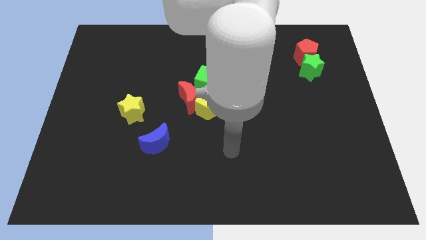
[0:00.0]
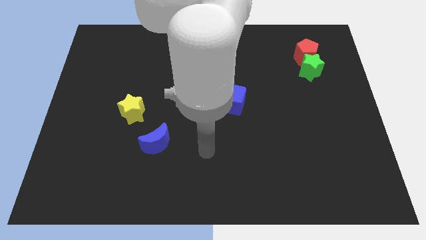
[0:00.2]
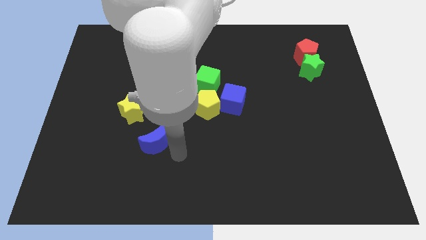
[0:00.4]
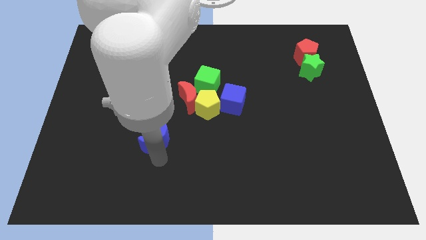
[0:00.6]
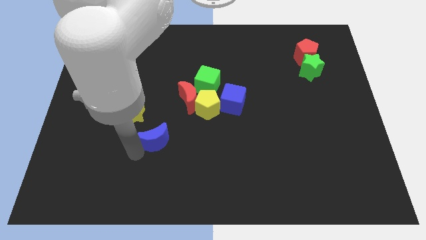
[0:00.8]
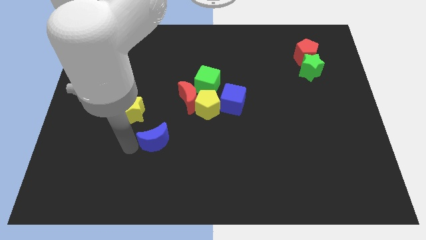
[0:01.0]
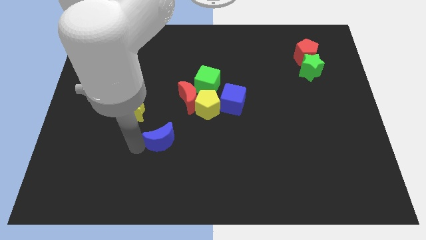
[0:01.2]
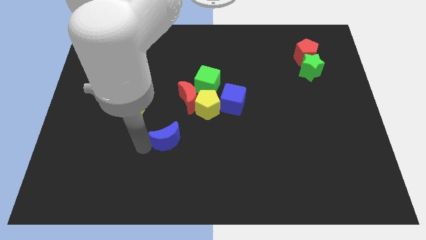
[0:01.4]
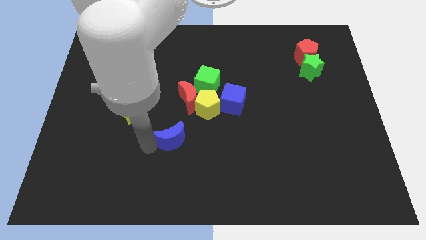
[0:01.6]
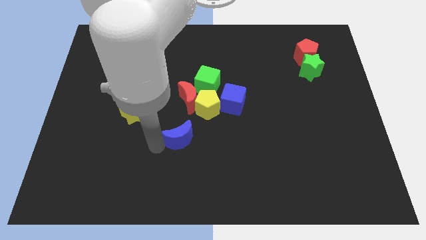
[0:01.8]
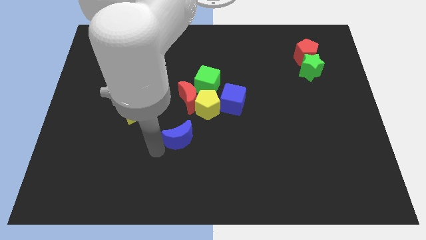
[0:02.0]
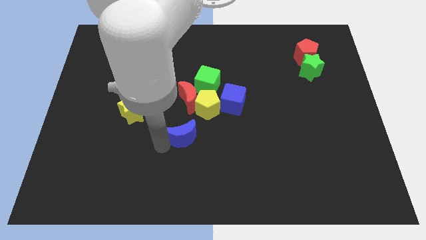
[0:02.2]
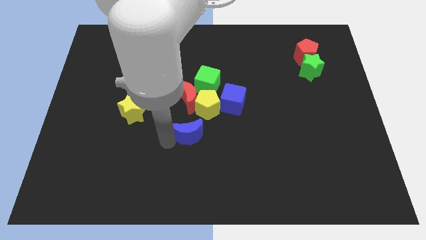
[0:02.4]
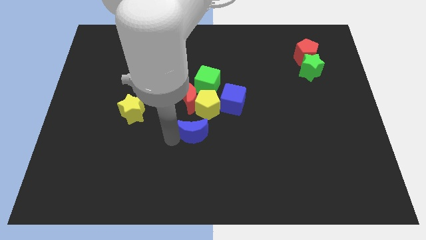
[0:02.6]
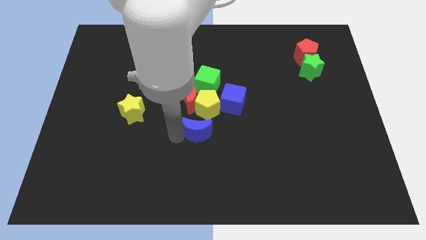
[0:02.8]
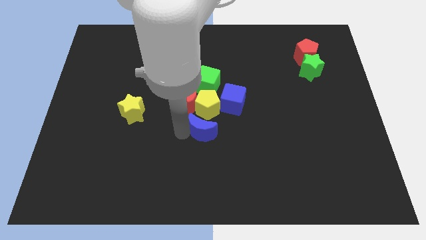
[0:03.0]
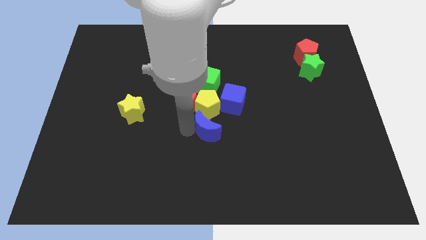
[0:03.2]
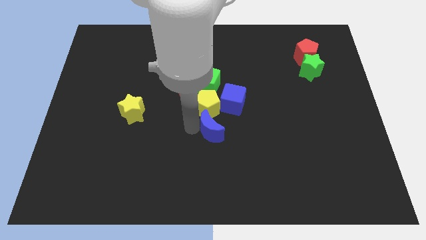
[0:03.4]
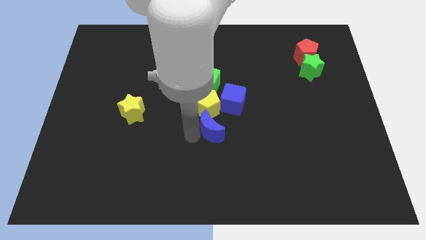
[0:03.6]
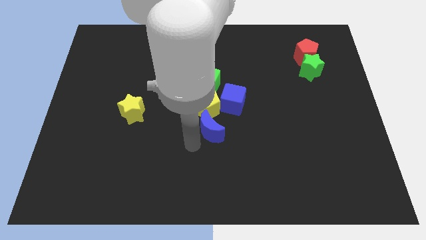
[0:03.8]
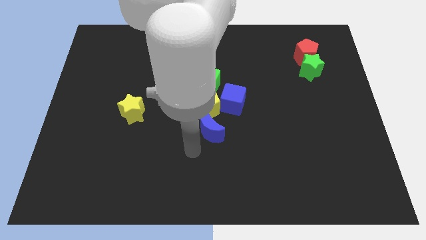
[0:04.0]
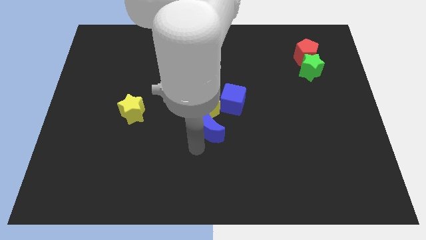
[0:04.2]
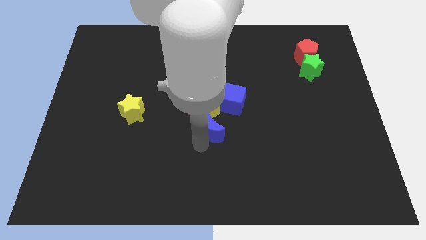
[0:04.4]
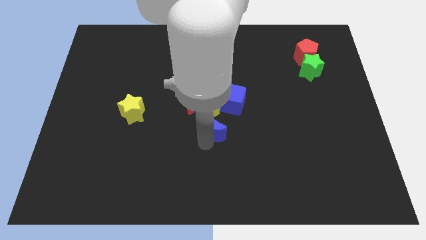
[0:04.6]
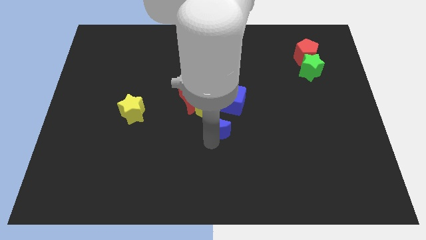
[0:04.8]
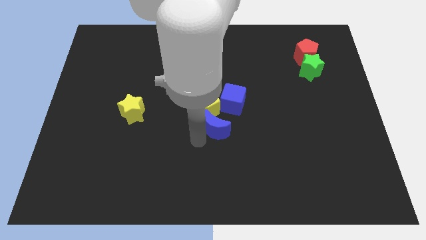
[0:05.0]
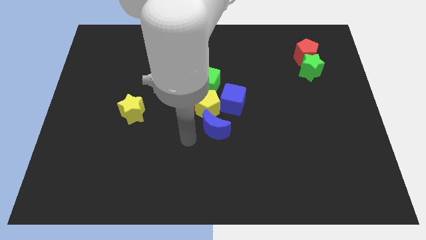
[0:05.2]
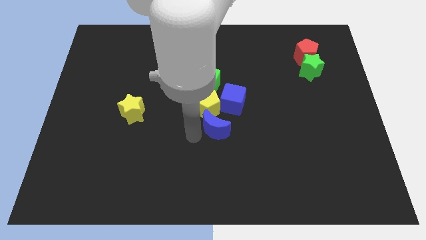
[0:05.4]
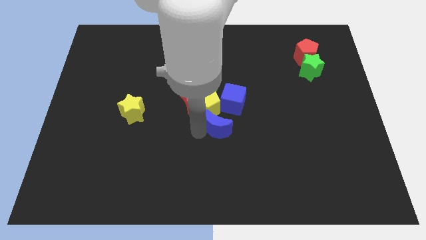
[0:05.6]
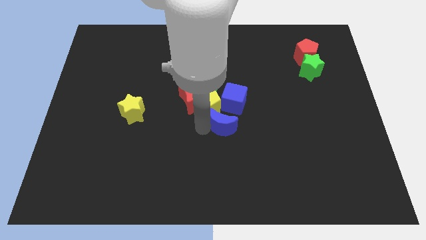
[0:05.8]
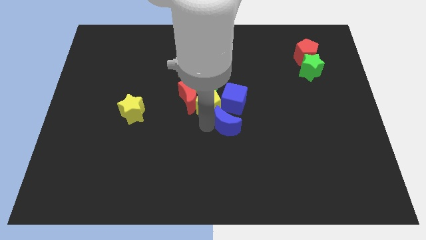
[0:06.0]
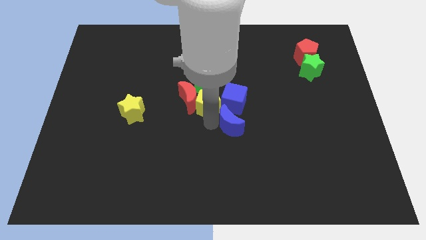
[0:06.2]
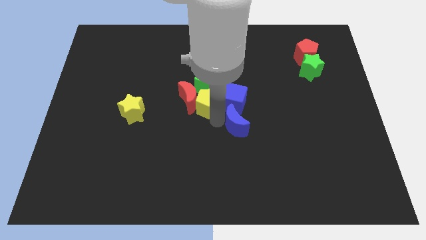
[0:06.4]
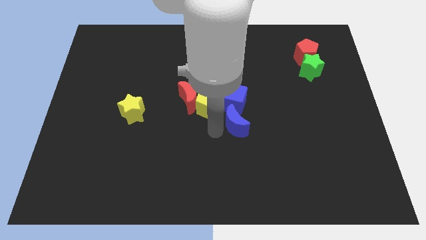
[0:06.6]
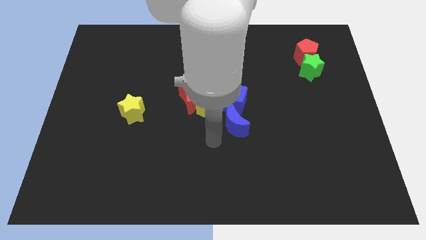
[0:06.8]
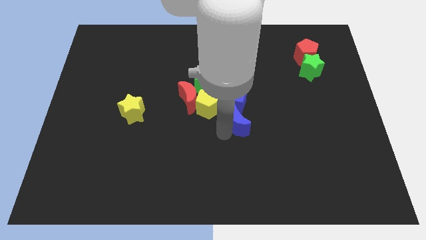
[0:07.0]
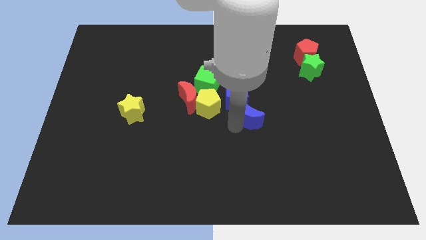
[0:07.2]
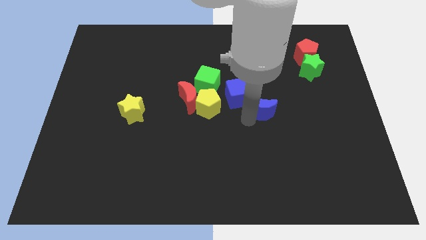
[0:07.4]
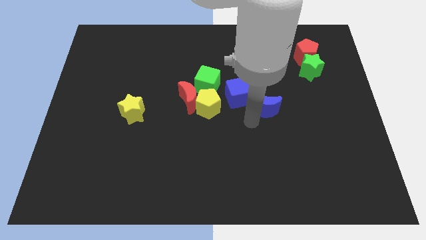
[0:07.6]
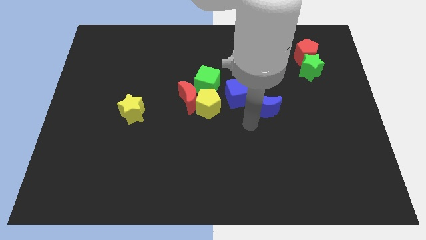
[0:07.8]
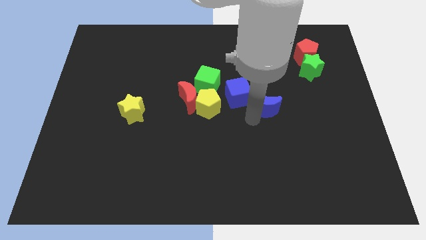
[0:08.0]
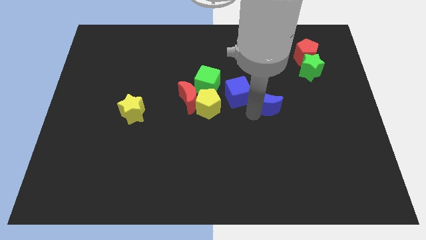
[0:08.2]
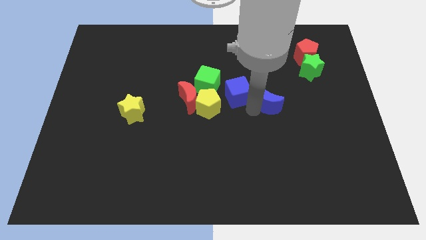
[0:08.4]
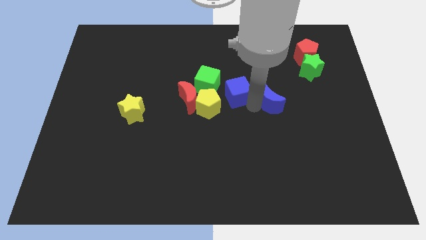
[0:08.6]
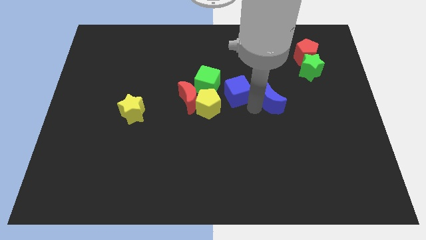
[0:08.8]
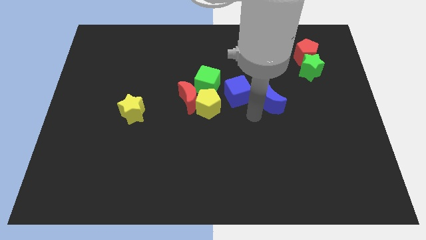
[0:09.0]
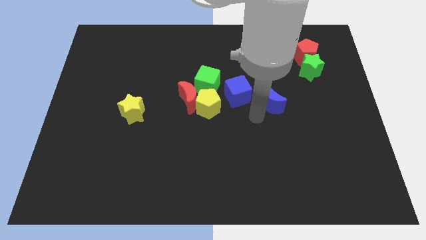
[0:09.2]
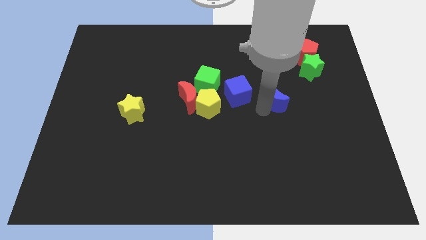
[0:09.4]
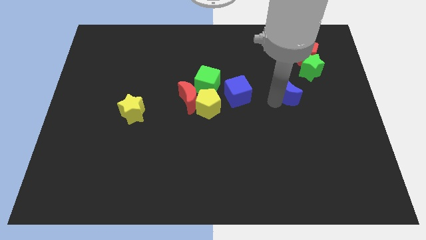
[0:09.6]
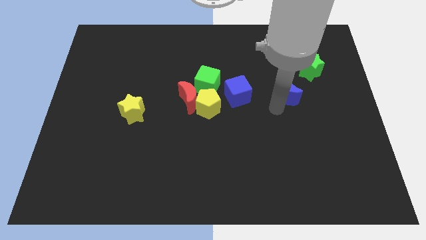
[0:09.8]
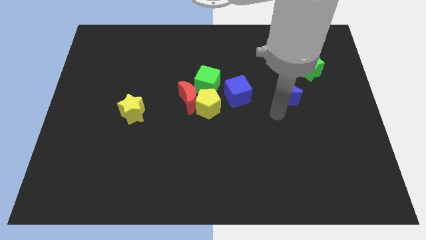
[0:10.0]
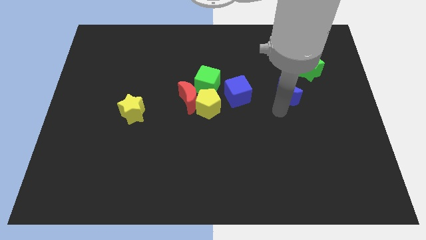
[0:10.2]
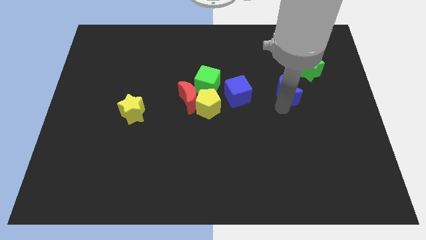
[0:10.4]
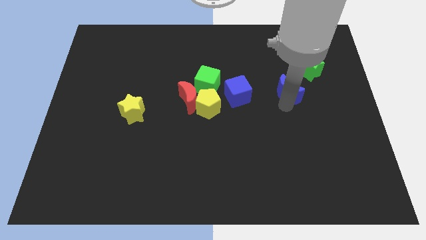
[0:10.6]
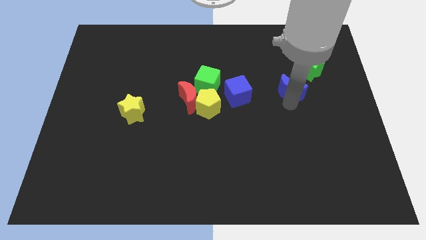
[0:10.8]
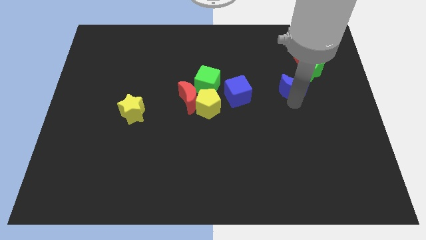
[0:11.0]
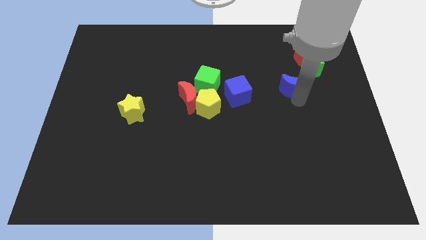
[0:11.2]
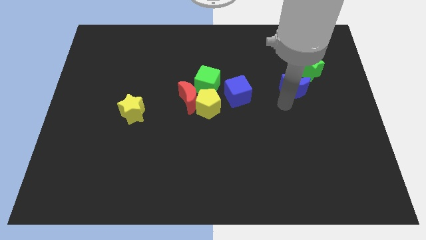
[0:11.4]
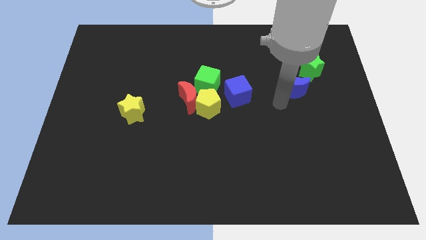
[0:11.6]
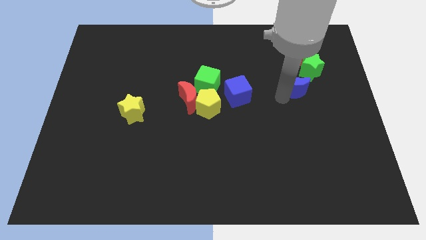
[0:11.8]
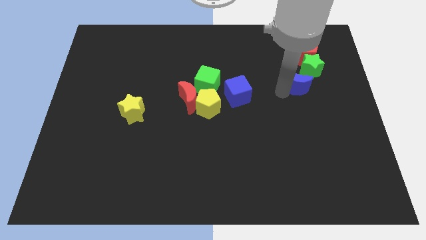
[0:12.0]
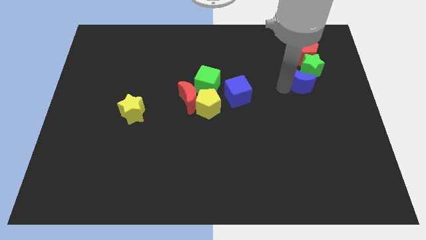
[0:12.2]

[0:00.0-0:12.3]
slide the blue moon close to the green star

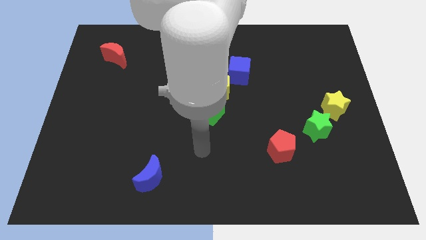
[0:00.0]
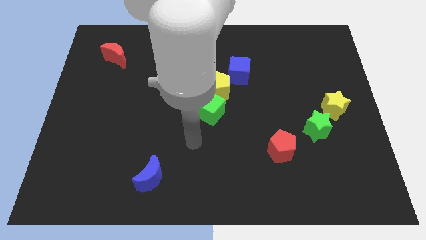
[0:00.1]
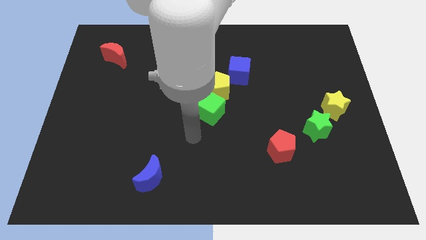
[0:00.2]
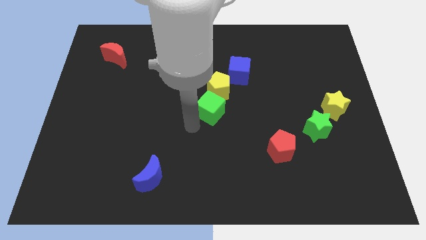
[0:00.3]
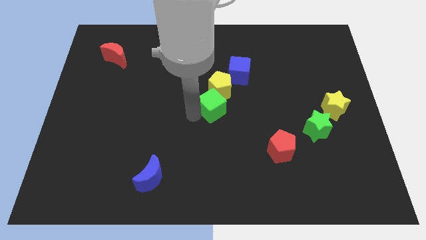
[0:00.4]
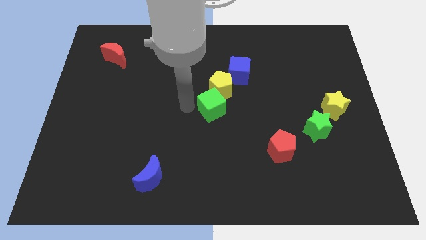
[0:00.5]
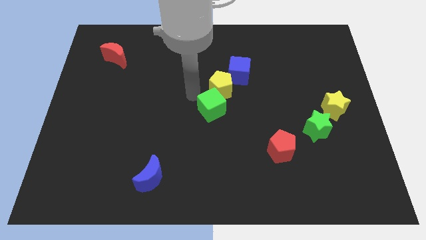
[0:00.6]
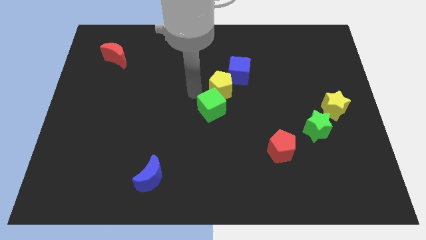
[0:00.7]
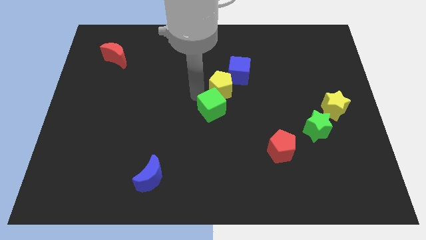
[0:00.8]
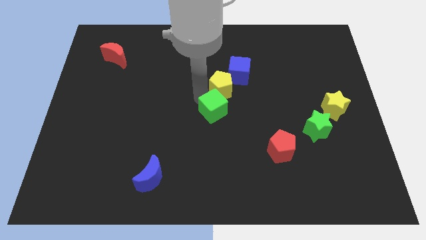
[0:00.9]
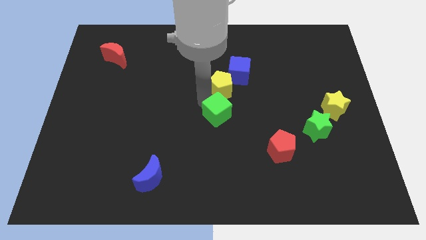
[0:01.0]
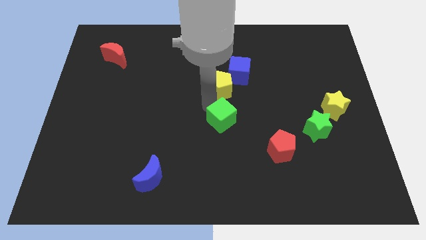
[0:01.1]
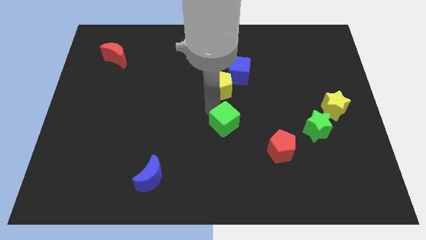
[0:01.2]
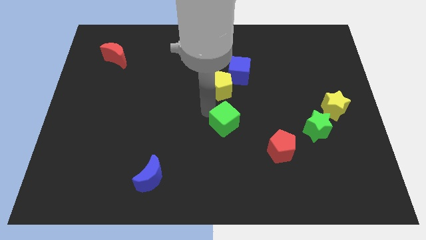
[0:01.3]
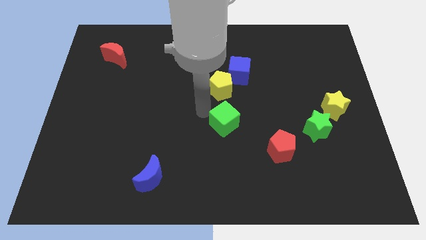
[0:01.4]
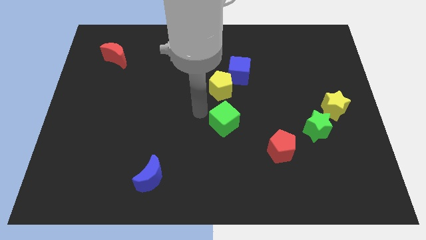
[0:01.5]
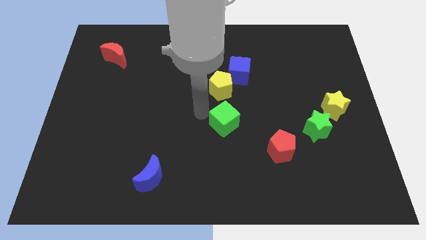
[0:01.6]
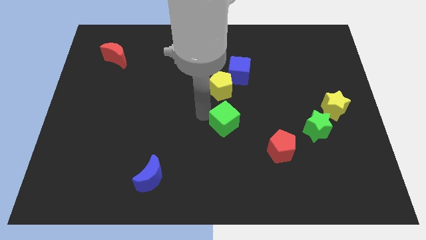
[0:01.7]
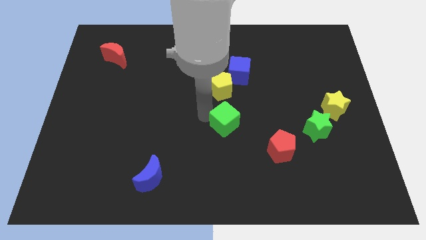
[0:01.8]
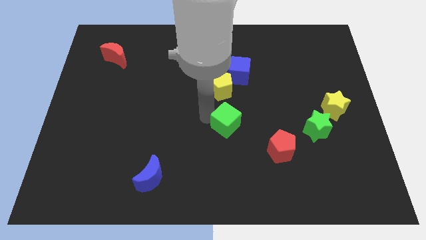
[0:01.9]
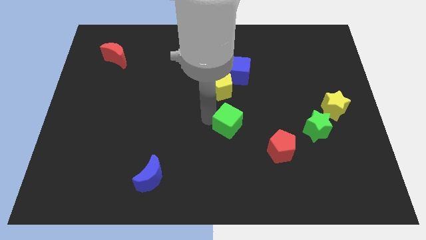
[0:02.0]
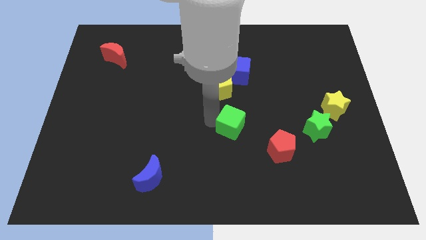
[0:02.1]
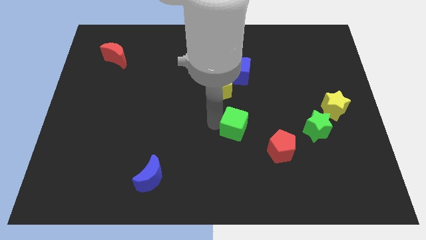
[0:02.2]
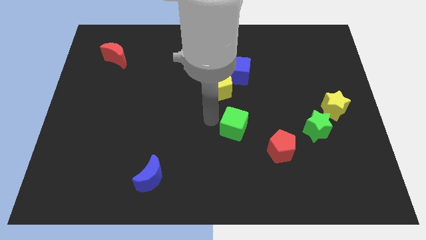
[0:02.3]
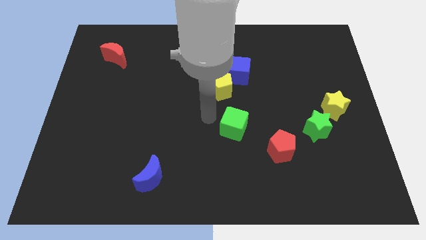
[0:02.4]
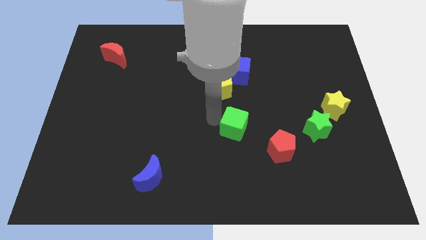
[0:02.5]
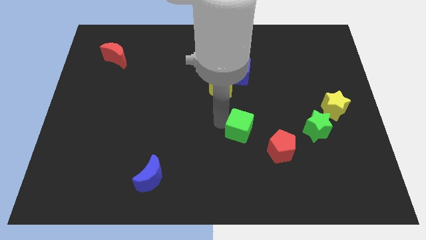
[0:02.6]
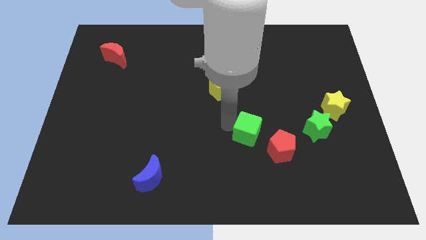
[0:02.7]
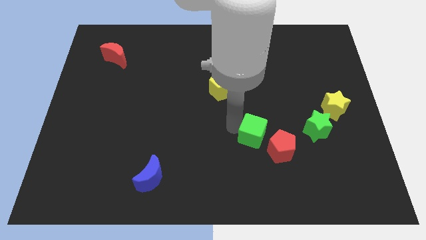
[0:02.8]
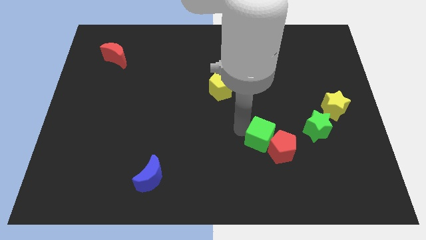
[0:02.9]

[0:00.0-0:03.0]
slide the green cube close to the red pentagon
